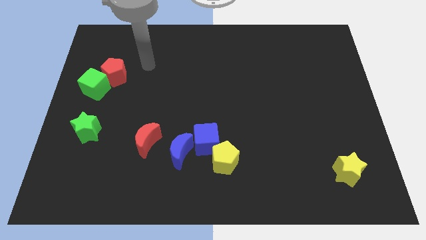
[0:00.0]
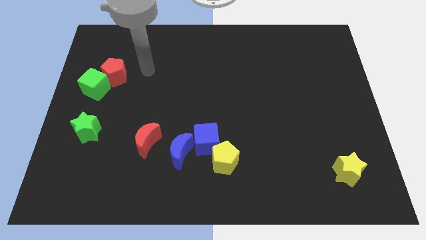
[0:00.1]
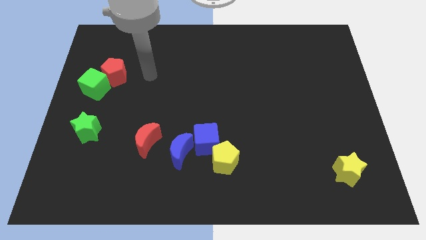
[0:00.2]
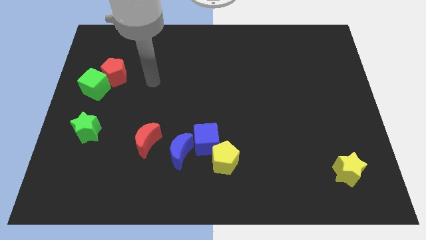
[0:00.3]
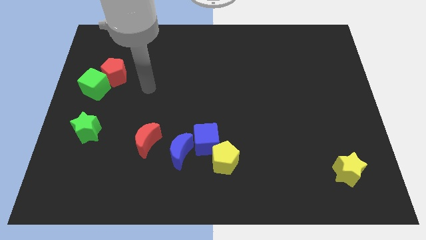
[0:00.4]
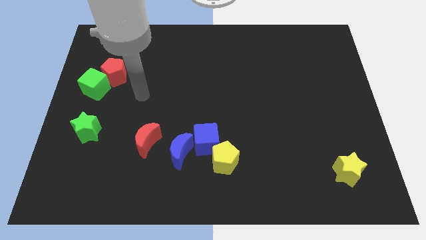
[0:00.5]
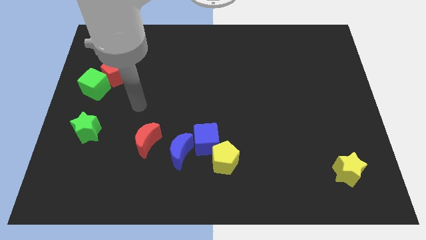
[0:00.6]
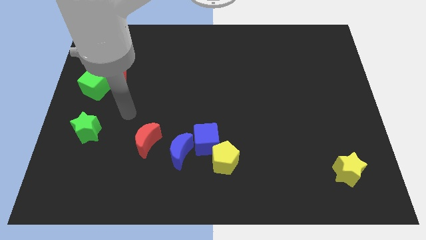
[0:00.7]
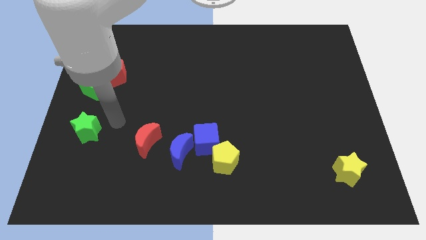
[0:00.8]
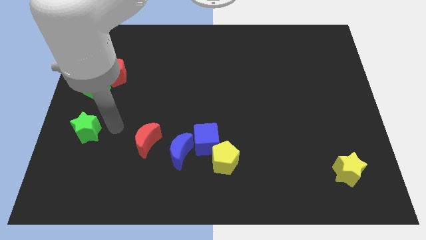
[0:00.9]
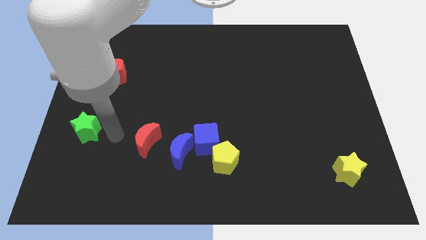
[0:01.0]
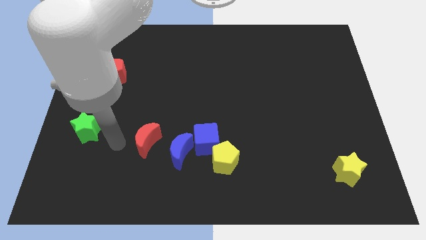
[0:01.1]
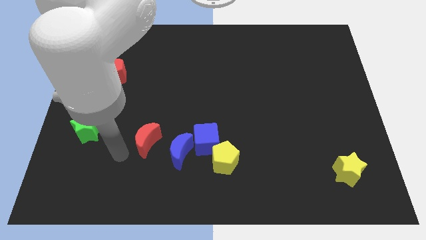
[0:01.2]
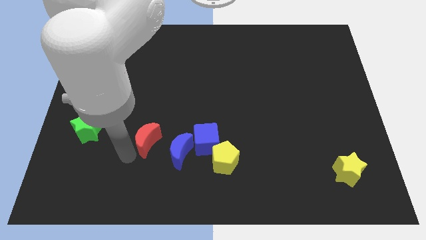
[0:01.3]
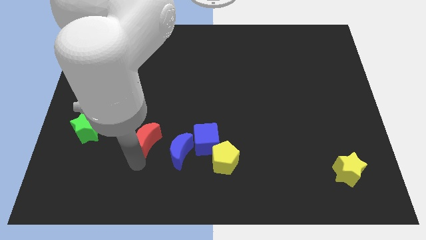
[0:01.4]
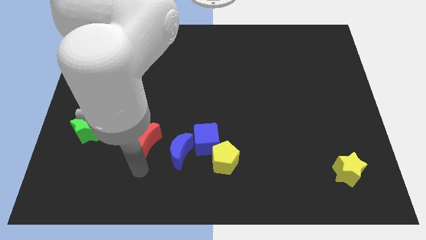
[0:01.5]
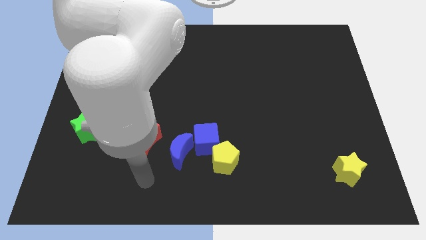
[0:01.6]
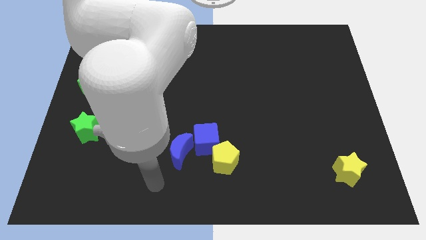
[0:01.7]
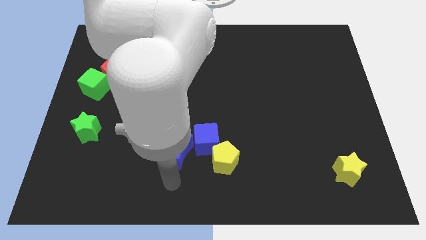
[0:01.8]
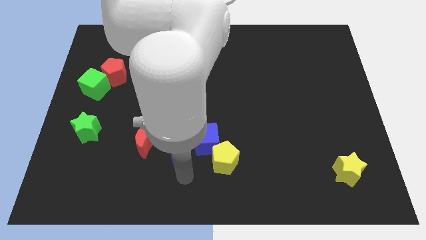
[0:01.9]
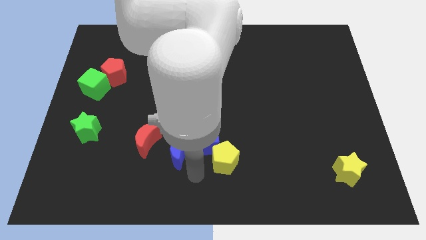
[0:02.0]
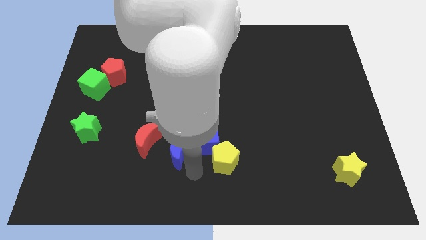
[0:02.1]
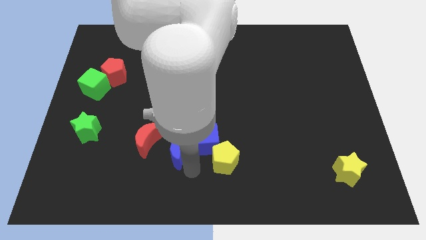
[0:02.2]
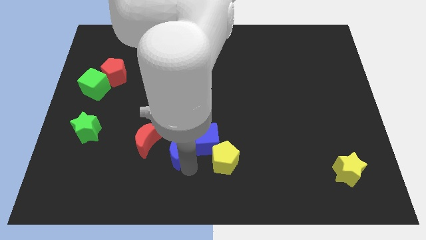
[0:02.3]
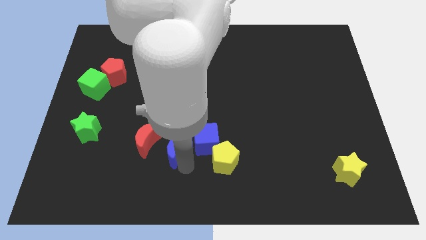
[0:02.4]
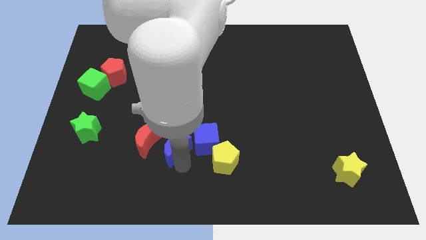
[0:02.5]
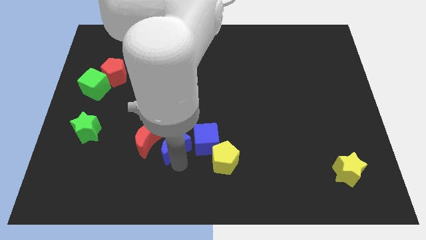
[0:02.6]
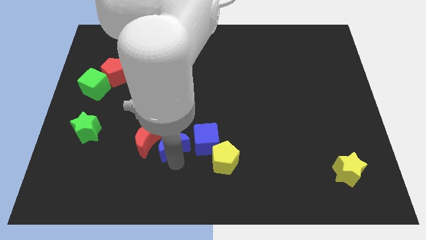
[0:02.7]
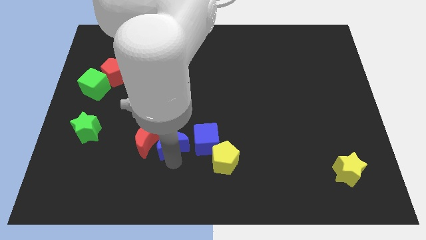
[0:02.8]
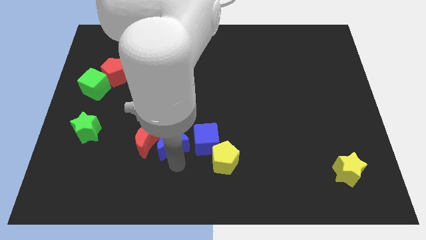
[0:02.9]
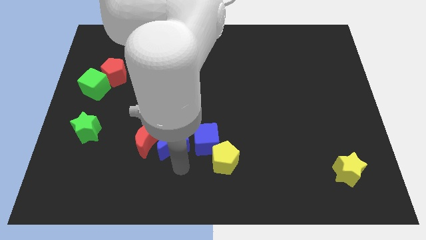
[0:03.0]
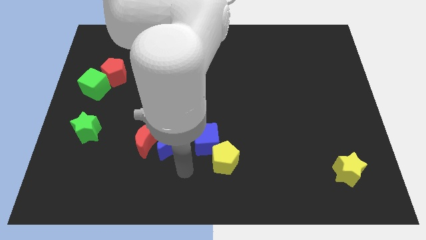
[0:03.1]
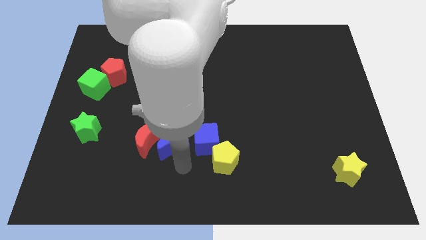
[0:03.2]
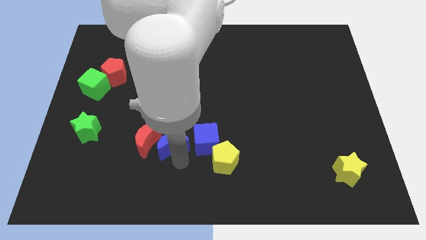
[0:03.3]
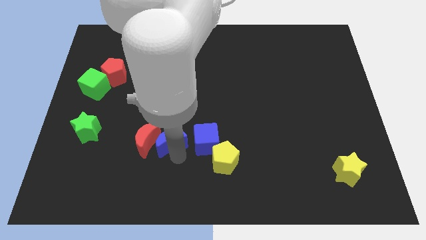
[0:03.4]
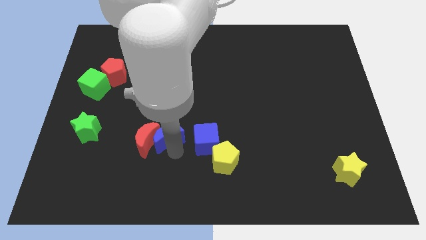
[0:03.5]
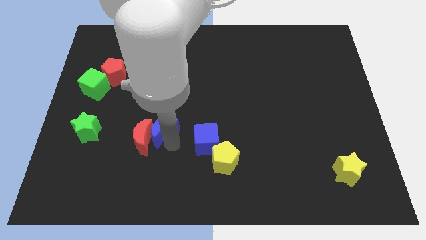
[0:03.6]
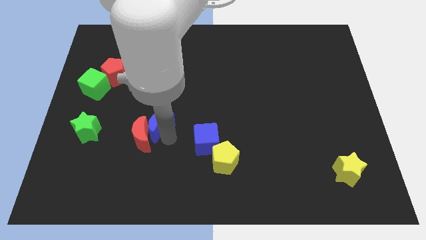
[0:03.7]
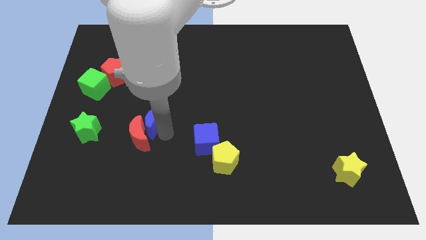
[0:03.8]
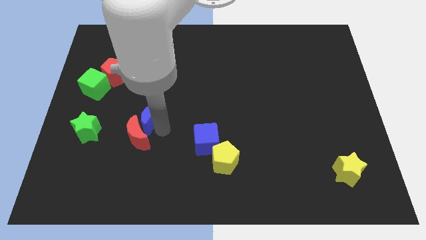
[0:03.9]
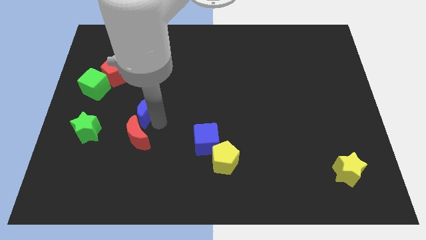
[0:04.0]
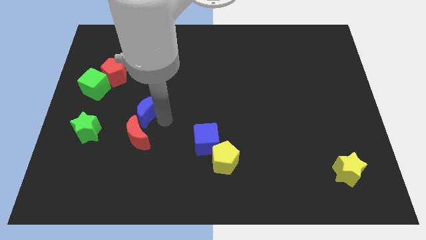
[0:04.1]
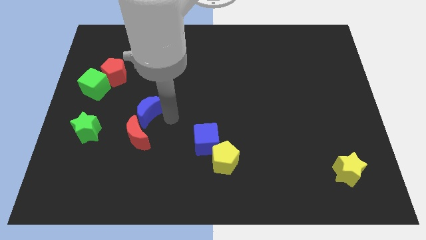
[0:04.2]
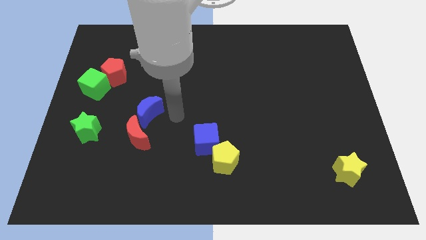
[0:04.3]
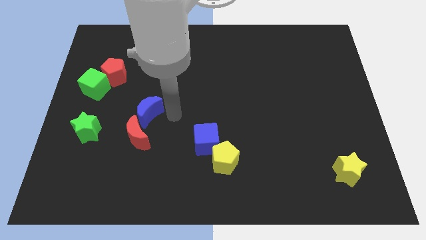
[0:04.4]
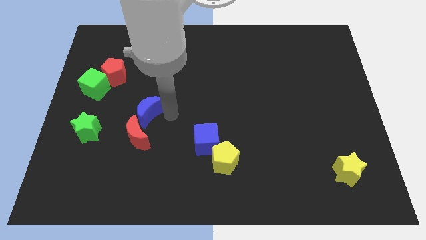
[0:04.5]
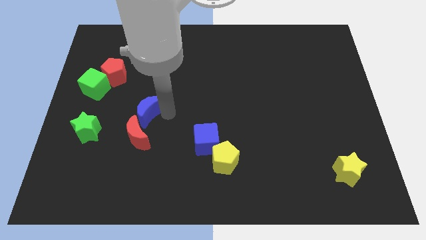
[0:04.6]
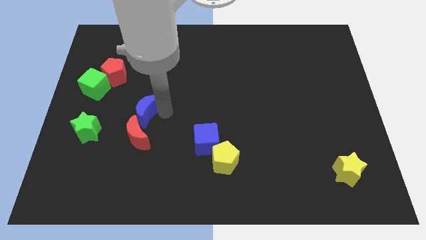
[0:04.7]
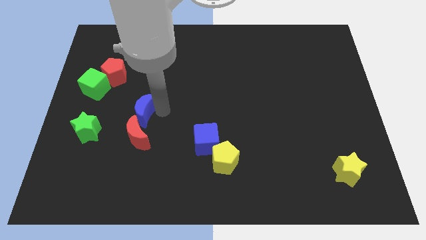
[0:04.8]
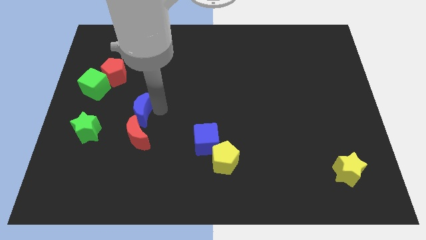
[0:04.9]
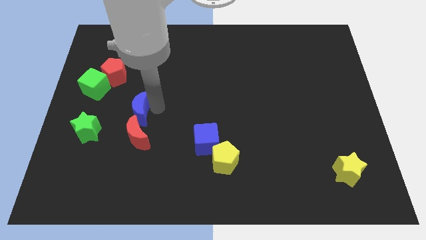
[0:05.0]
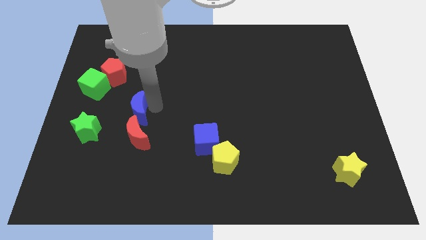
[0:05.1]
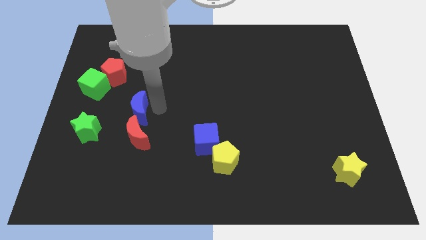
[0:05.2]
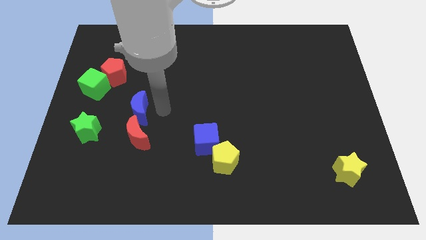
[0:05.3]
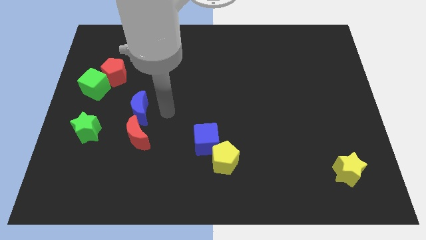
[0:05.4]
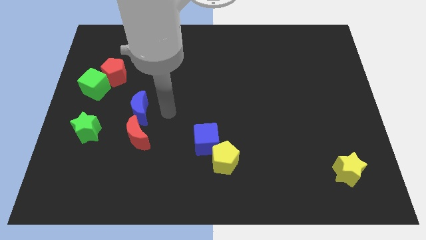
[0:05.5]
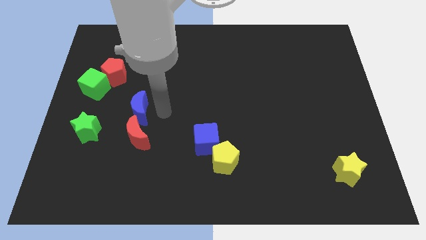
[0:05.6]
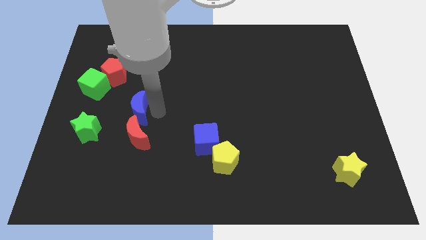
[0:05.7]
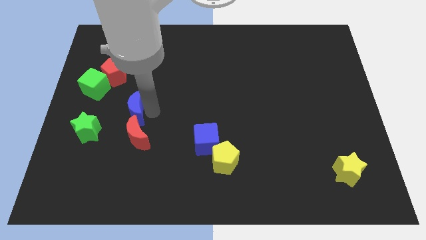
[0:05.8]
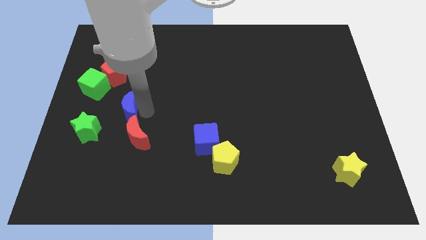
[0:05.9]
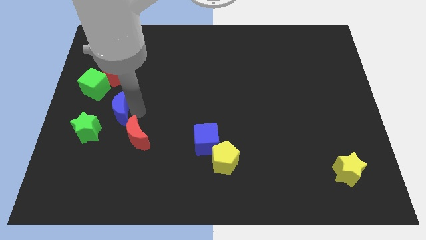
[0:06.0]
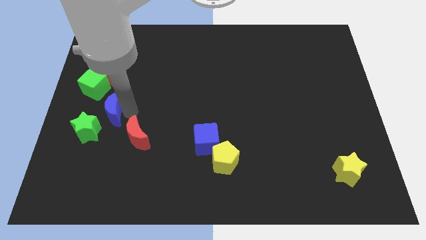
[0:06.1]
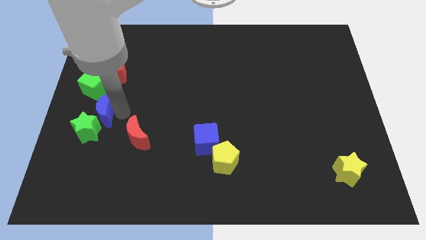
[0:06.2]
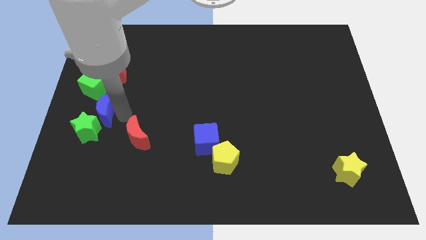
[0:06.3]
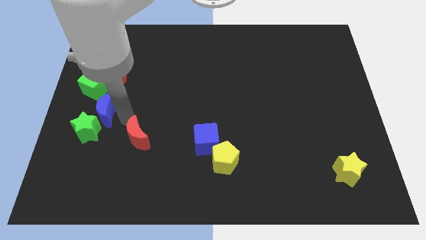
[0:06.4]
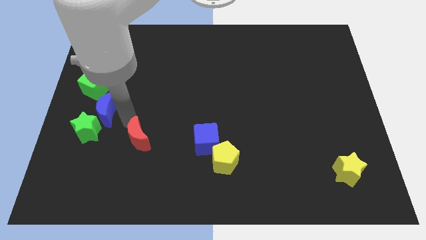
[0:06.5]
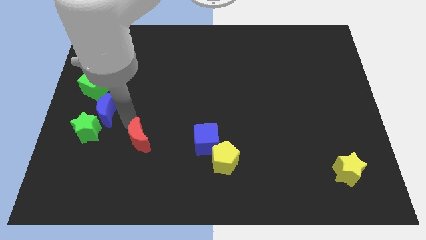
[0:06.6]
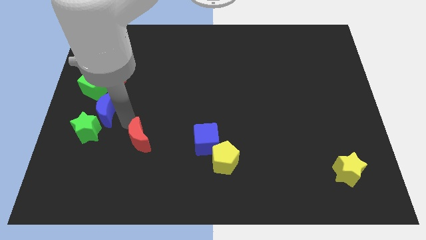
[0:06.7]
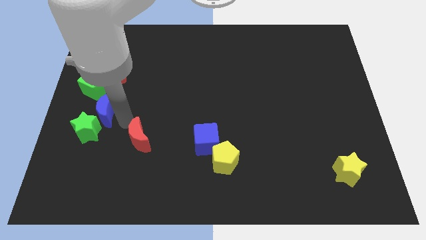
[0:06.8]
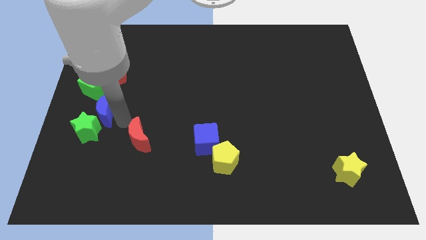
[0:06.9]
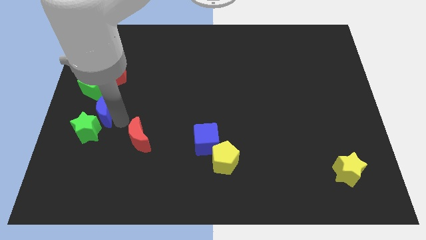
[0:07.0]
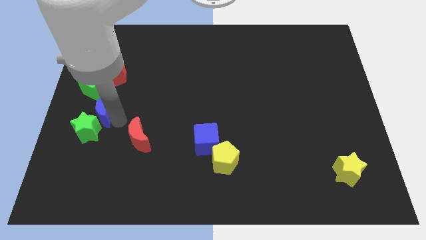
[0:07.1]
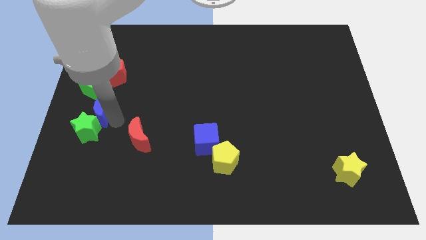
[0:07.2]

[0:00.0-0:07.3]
slide the blue moon to the center left
